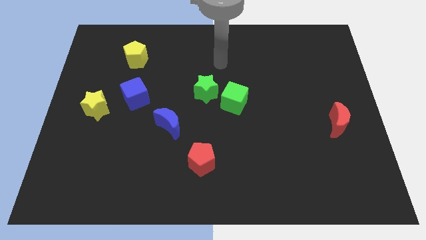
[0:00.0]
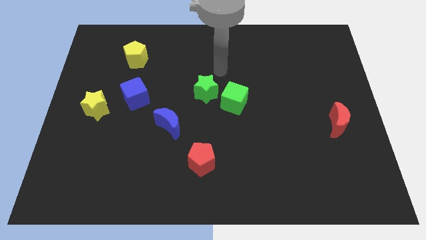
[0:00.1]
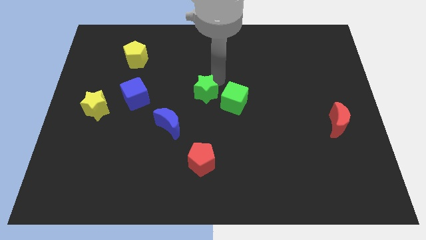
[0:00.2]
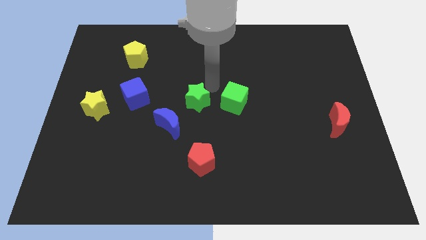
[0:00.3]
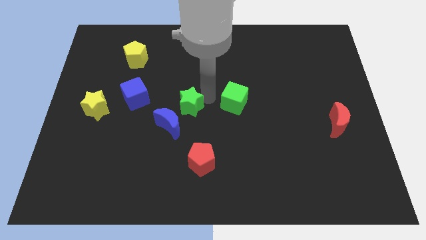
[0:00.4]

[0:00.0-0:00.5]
move the green cube away from the green star

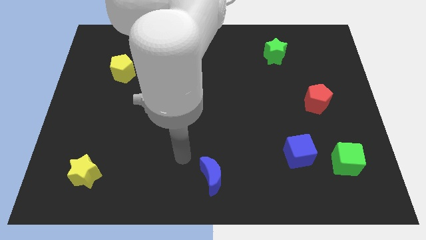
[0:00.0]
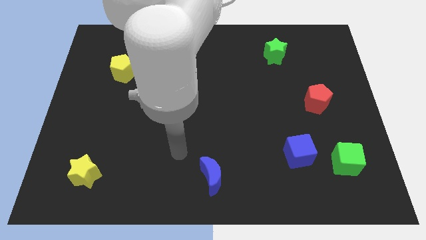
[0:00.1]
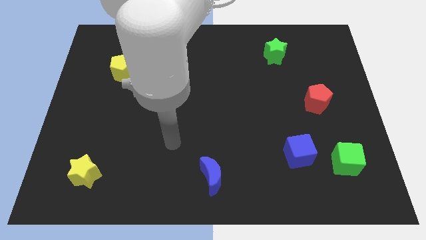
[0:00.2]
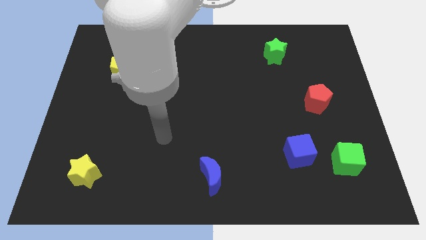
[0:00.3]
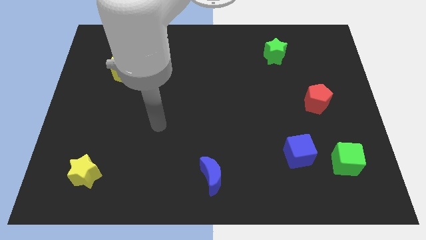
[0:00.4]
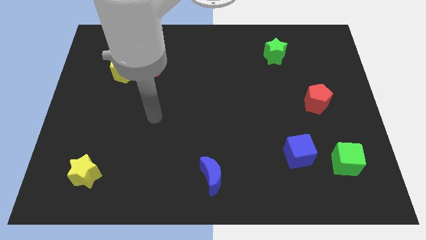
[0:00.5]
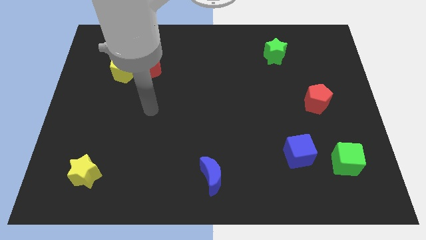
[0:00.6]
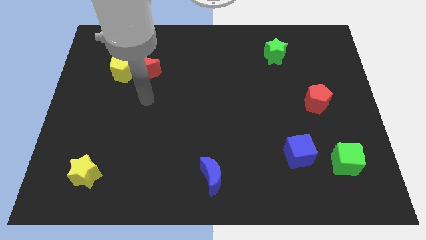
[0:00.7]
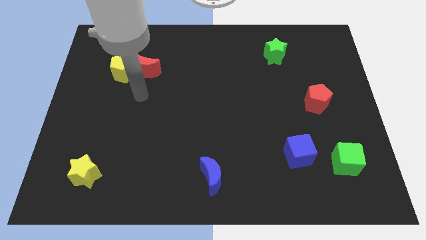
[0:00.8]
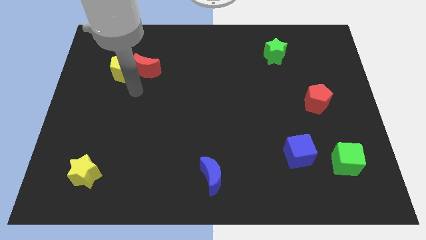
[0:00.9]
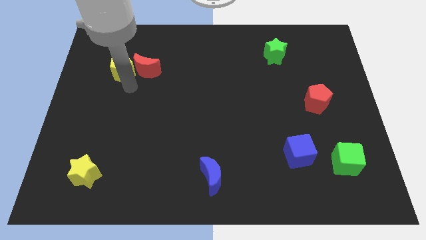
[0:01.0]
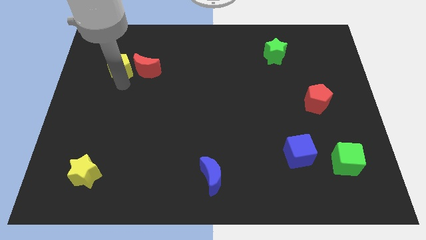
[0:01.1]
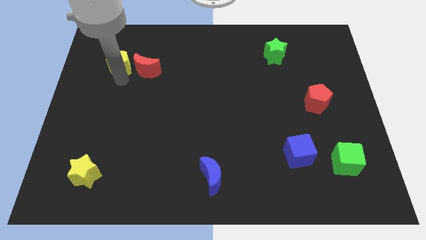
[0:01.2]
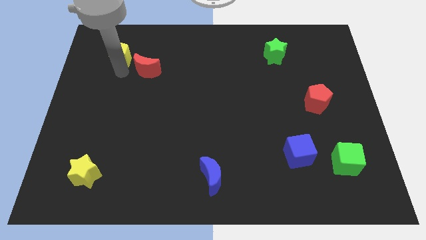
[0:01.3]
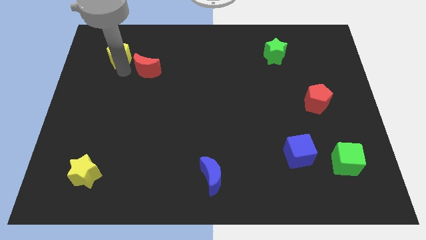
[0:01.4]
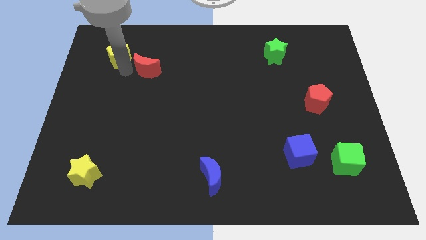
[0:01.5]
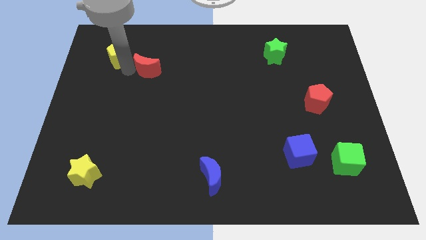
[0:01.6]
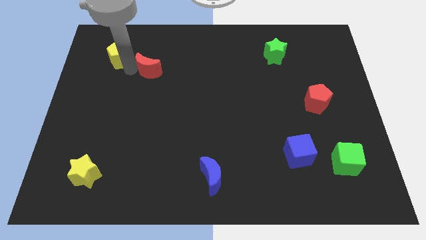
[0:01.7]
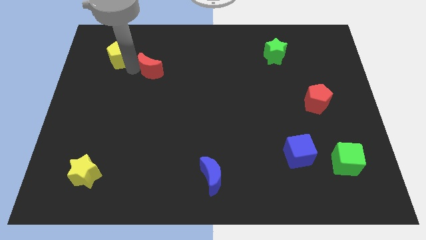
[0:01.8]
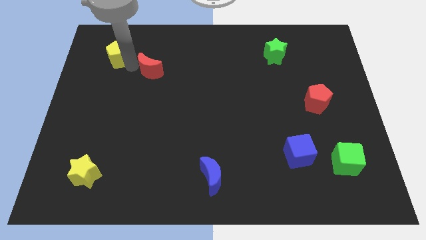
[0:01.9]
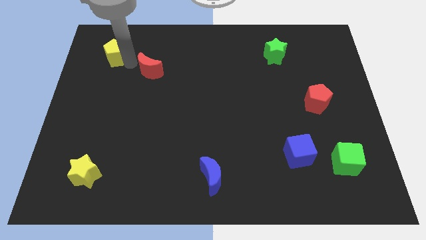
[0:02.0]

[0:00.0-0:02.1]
separate the red moon from the yellow pentagon

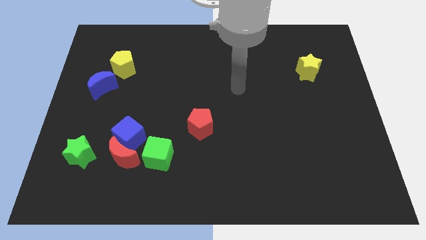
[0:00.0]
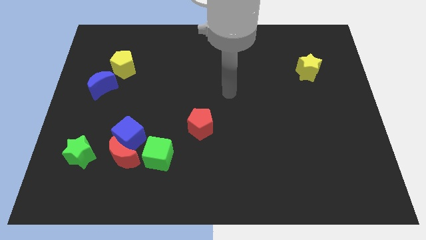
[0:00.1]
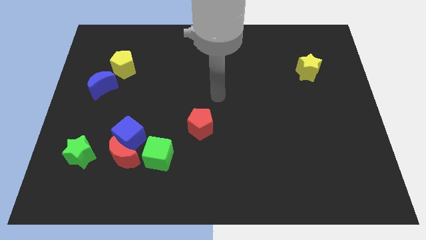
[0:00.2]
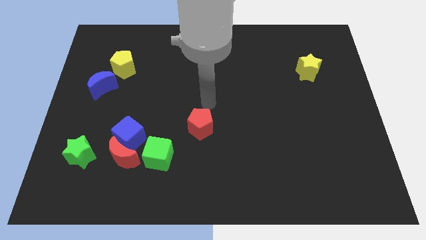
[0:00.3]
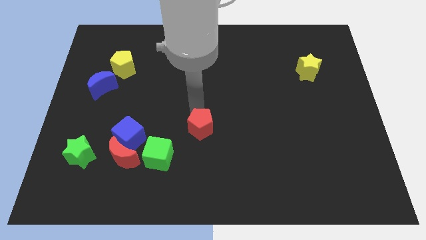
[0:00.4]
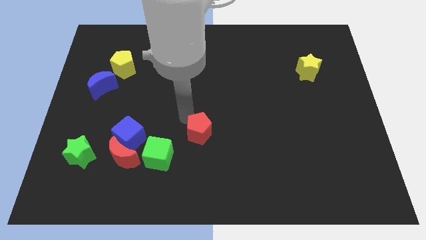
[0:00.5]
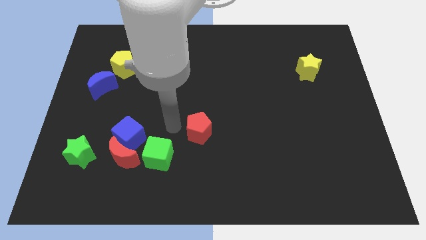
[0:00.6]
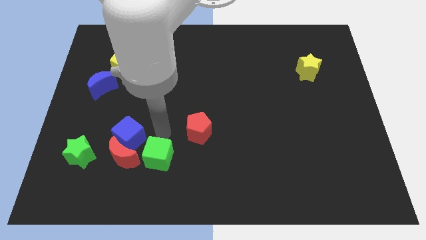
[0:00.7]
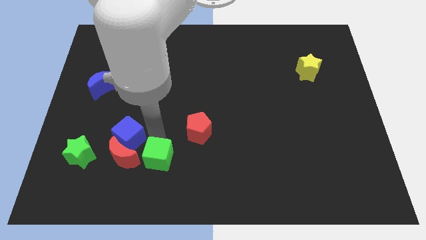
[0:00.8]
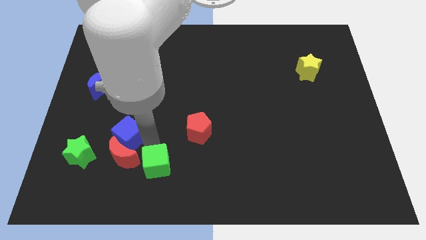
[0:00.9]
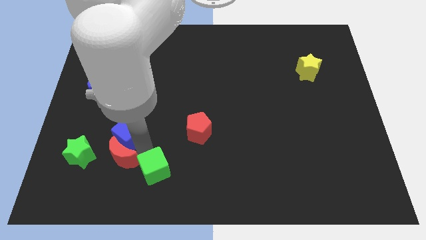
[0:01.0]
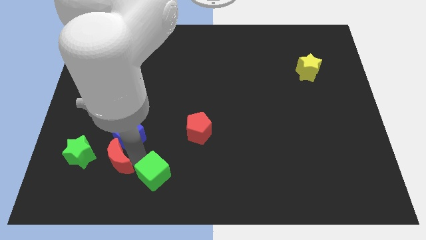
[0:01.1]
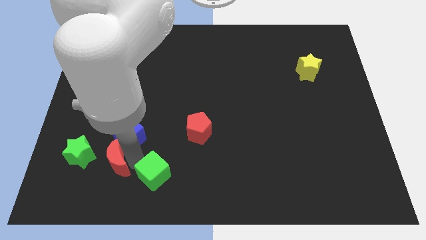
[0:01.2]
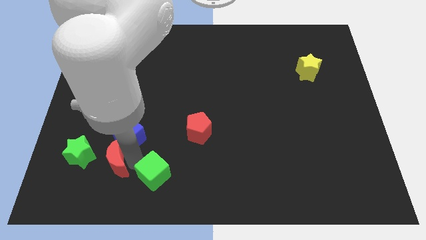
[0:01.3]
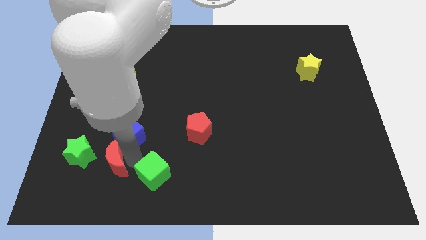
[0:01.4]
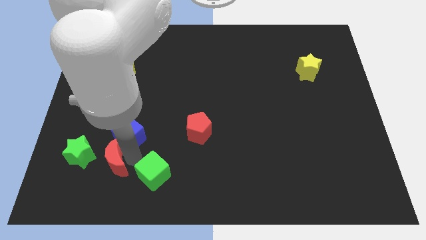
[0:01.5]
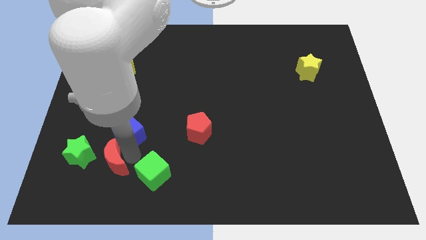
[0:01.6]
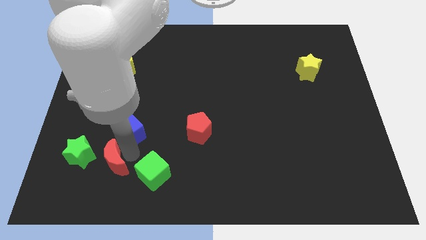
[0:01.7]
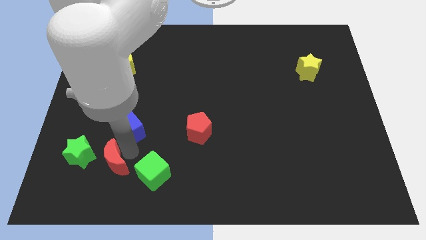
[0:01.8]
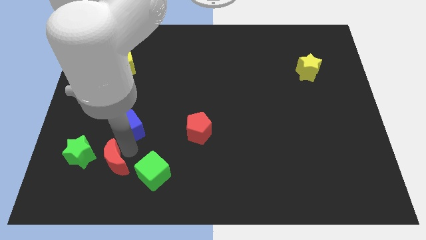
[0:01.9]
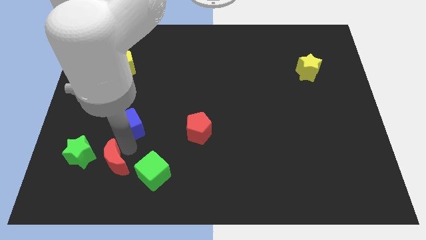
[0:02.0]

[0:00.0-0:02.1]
separate the blue cube from the red moon and green cube

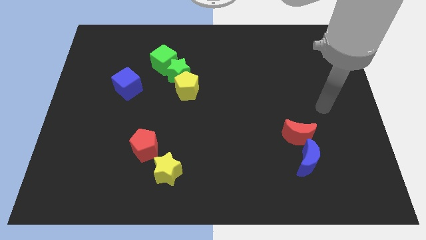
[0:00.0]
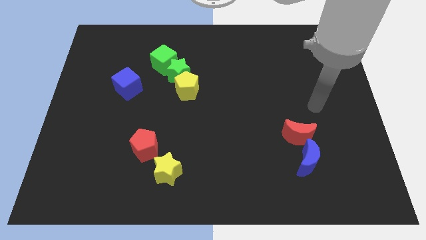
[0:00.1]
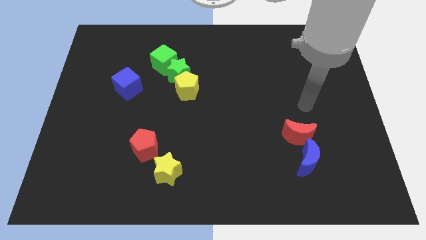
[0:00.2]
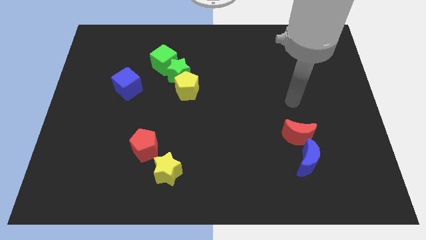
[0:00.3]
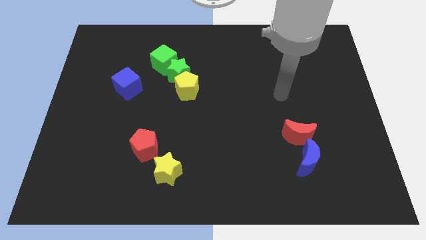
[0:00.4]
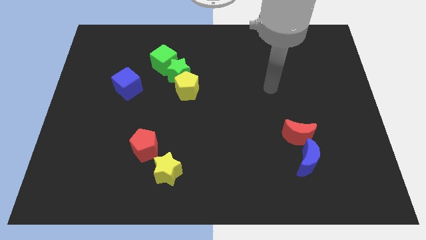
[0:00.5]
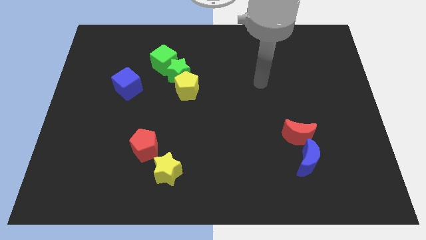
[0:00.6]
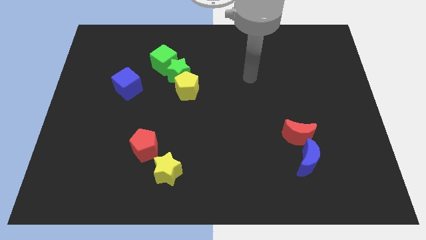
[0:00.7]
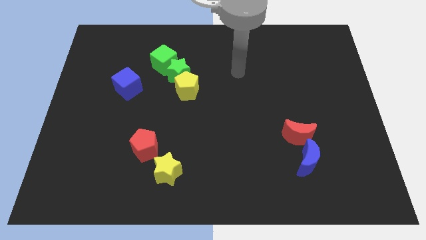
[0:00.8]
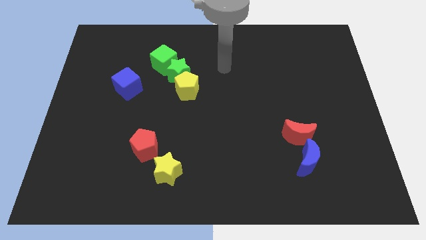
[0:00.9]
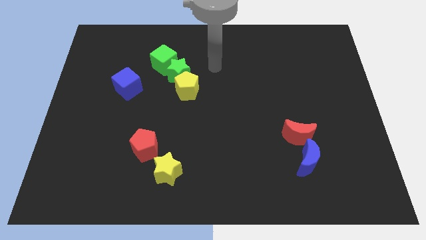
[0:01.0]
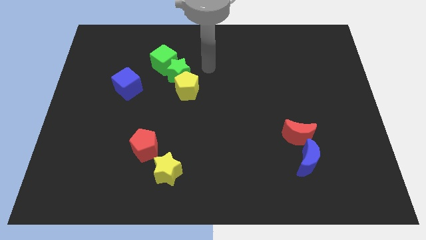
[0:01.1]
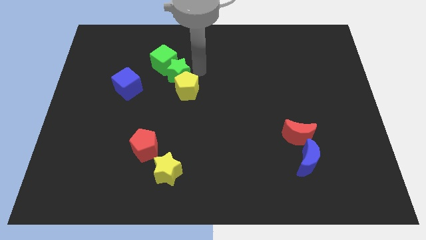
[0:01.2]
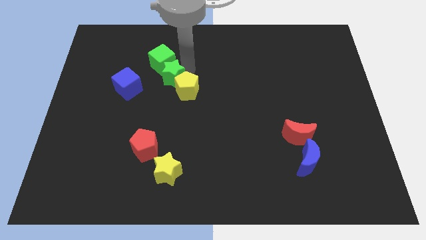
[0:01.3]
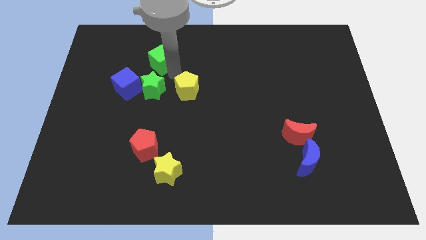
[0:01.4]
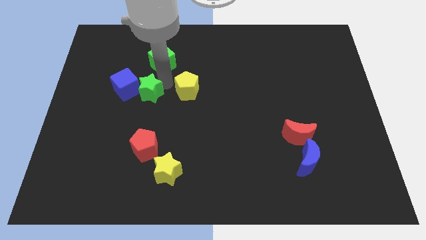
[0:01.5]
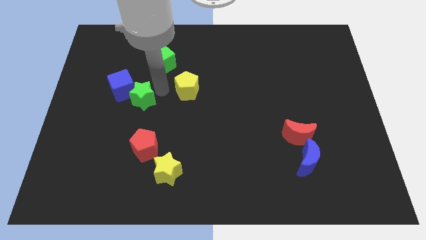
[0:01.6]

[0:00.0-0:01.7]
pull the yellow pentagon apart from the green star

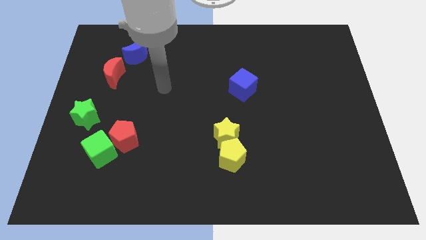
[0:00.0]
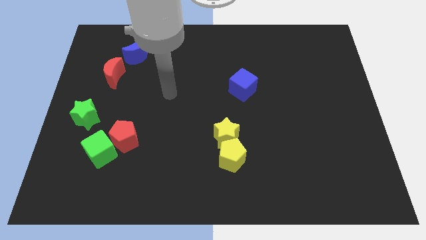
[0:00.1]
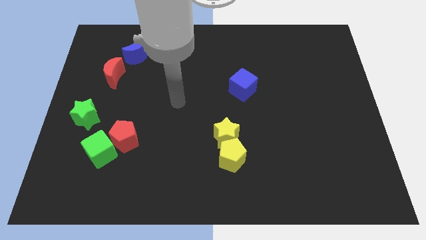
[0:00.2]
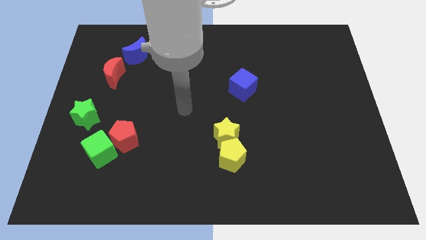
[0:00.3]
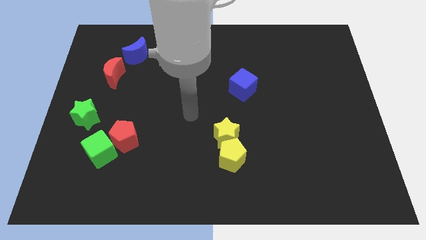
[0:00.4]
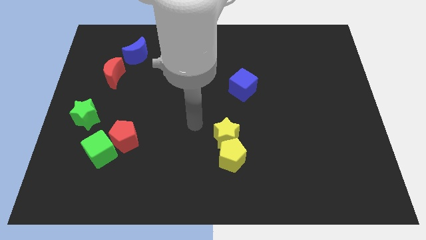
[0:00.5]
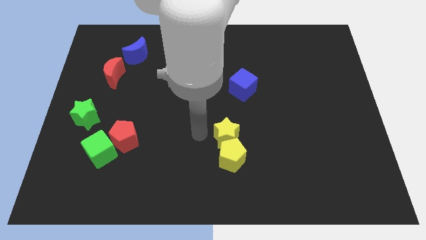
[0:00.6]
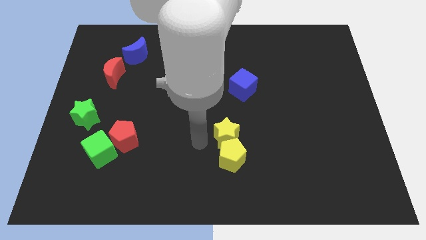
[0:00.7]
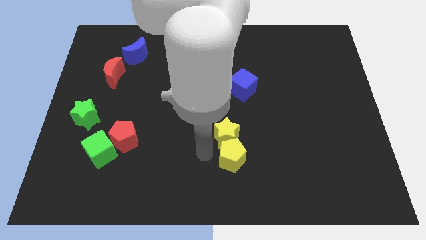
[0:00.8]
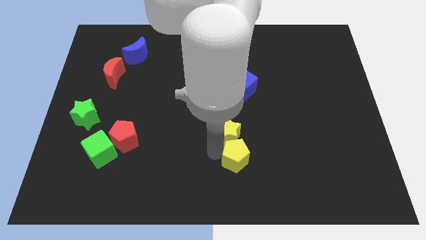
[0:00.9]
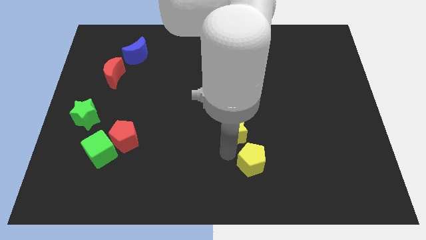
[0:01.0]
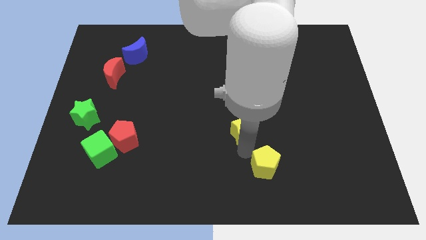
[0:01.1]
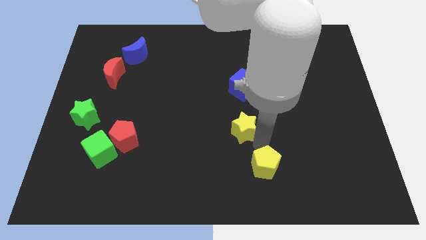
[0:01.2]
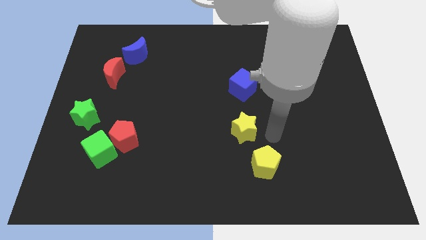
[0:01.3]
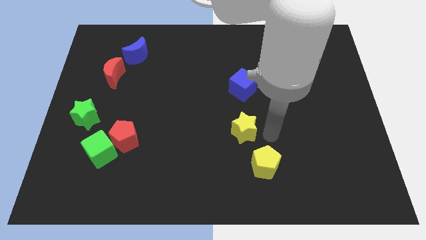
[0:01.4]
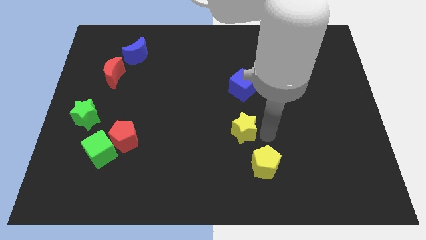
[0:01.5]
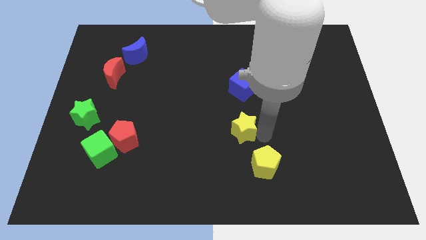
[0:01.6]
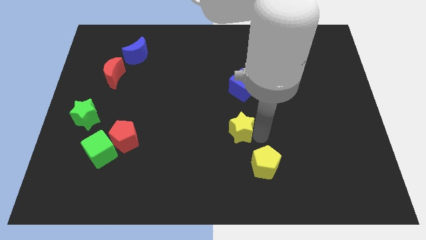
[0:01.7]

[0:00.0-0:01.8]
pull the yellow star apart from the yellow pentagon

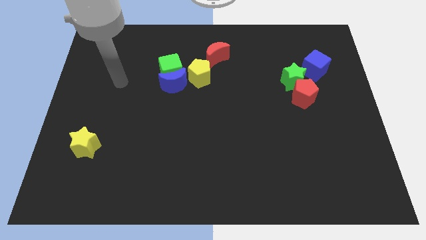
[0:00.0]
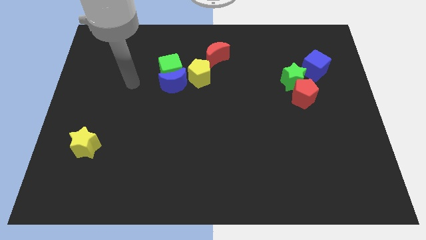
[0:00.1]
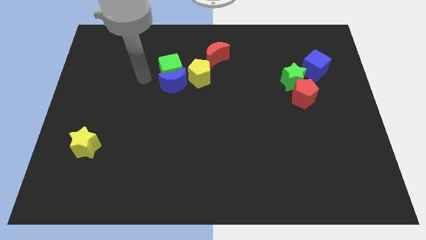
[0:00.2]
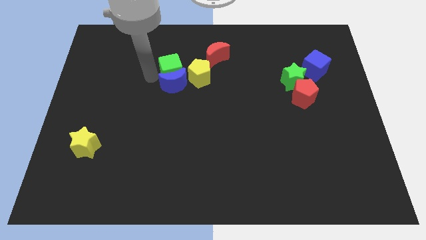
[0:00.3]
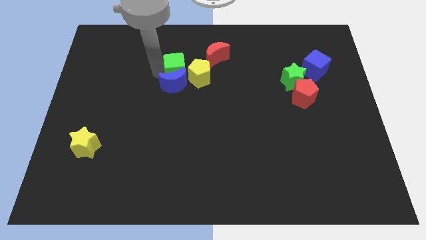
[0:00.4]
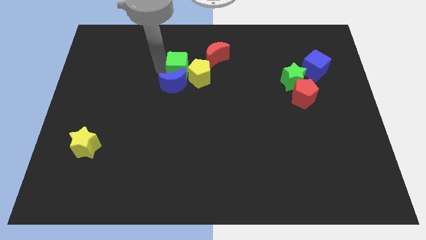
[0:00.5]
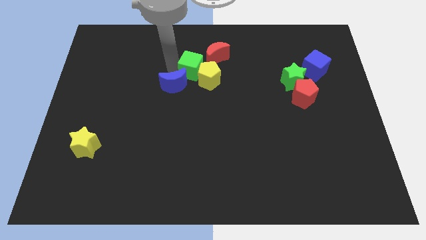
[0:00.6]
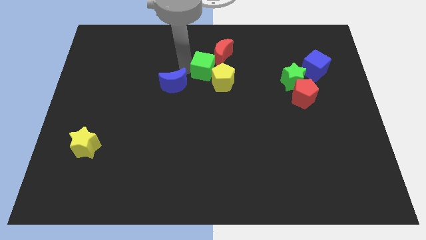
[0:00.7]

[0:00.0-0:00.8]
pull the blue moon apart from the green cube and yellow pentagon
